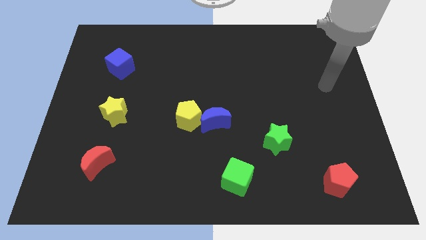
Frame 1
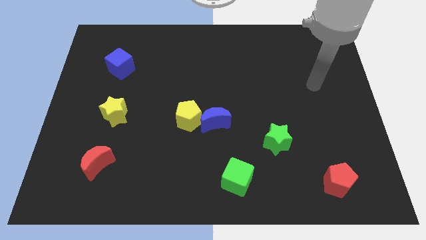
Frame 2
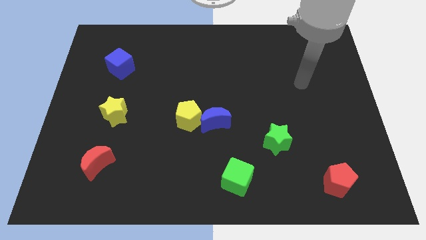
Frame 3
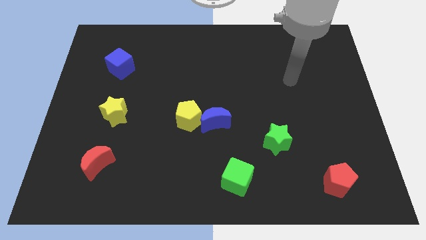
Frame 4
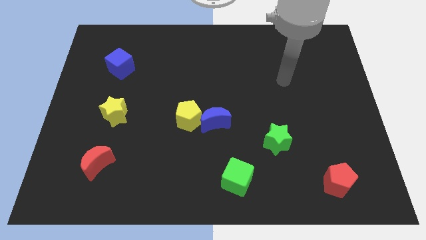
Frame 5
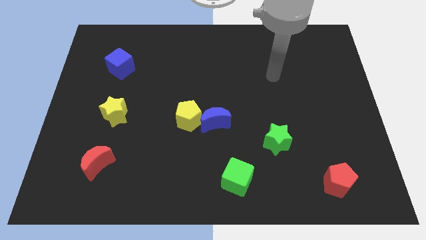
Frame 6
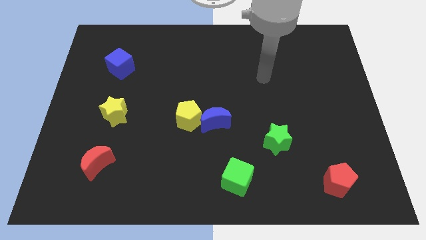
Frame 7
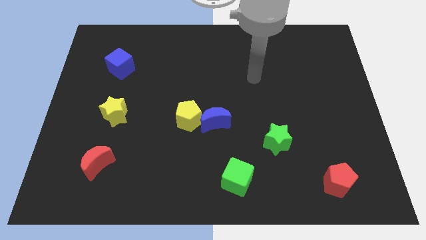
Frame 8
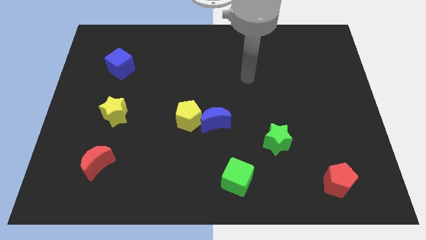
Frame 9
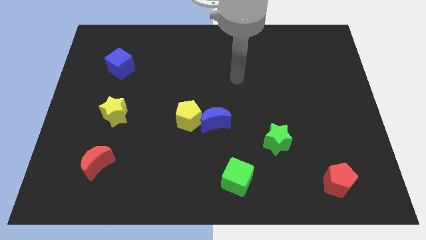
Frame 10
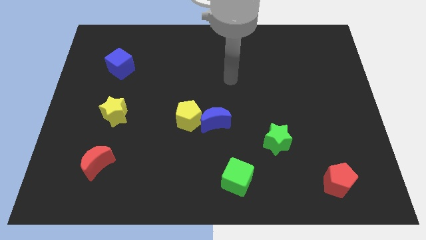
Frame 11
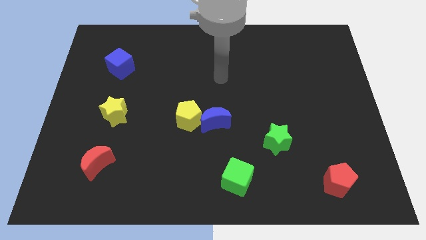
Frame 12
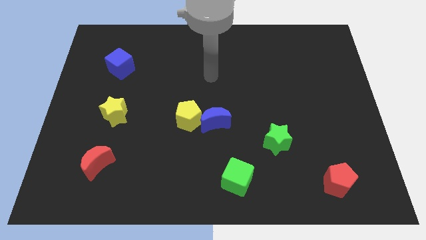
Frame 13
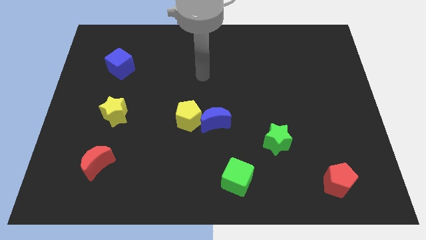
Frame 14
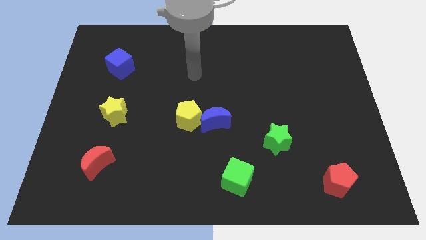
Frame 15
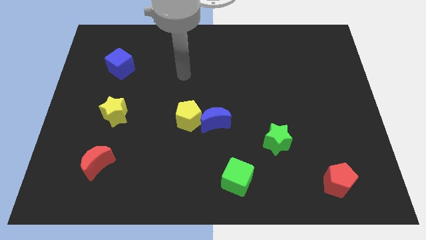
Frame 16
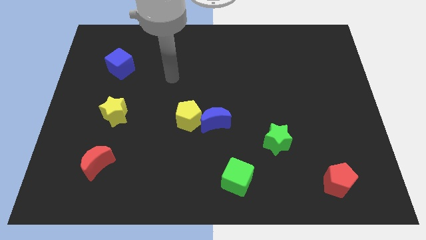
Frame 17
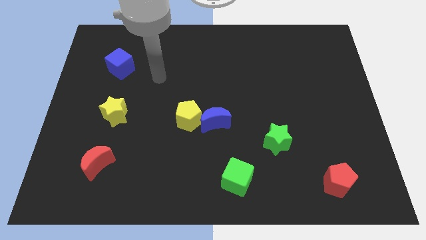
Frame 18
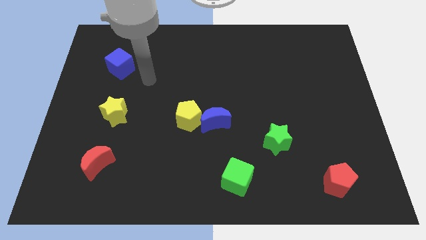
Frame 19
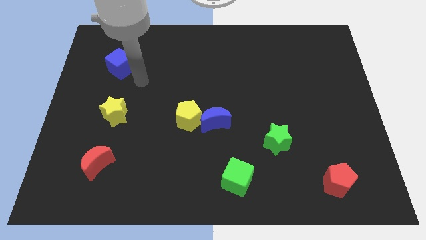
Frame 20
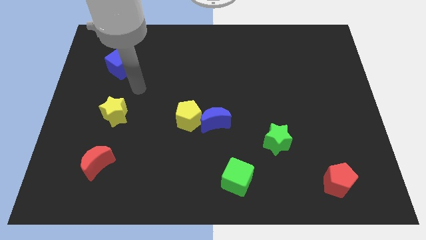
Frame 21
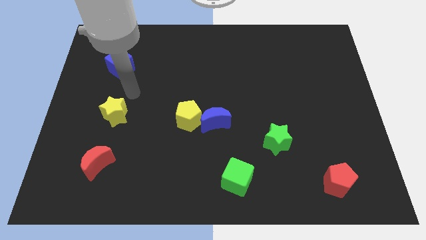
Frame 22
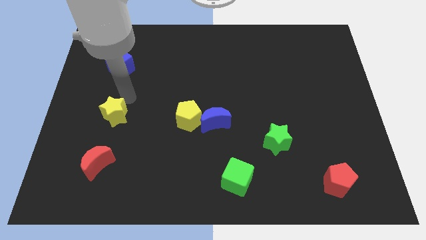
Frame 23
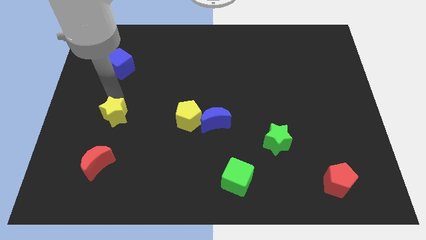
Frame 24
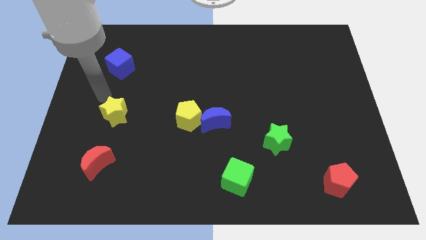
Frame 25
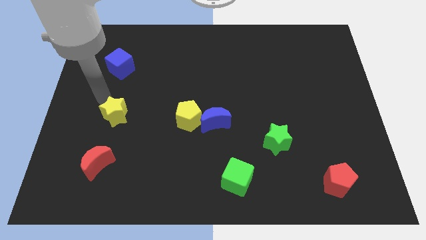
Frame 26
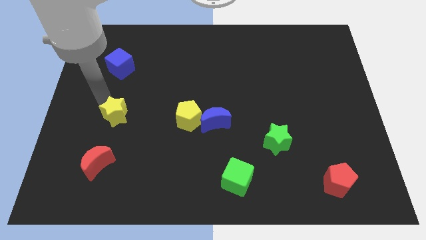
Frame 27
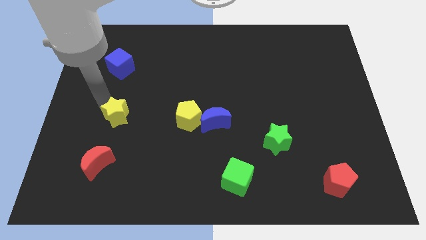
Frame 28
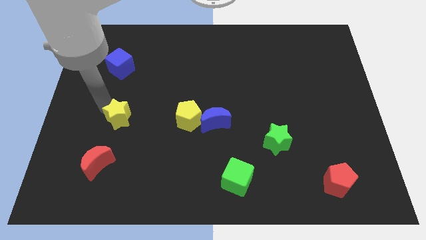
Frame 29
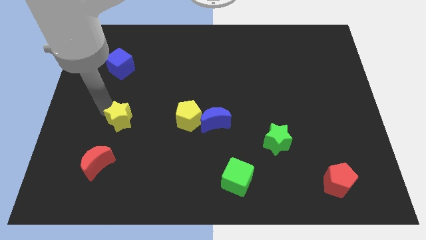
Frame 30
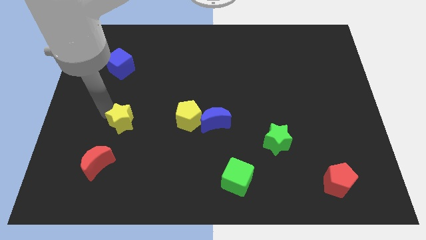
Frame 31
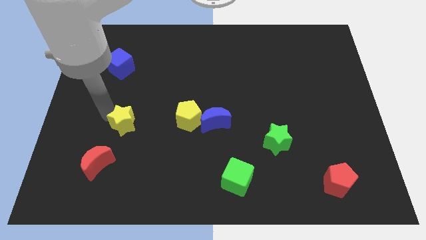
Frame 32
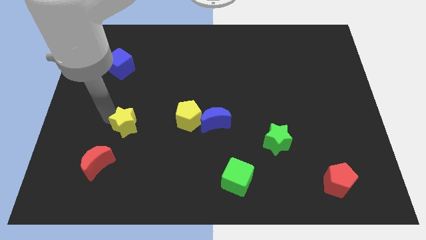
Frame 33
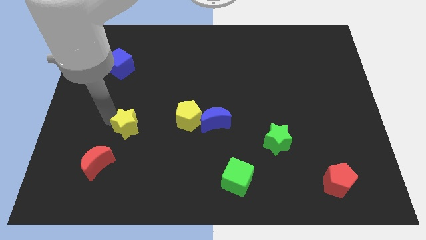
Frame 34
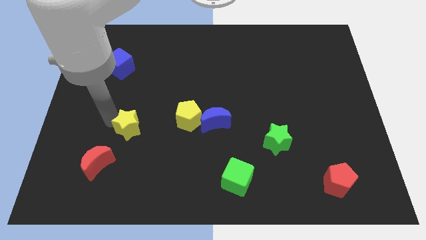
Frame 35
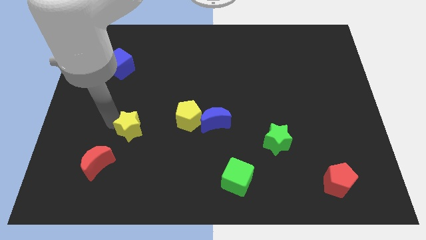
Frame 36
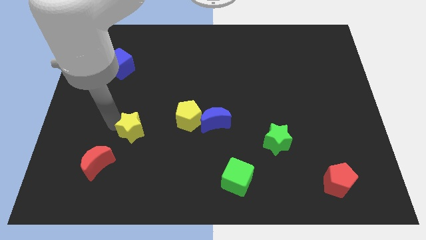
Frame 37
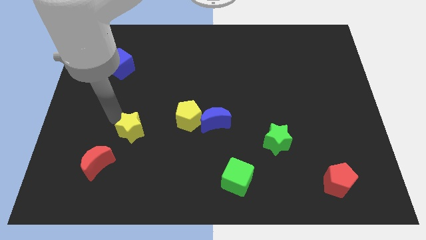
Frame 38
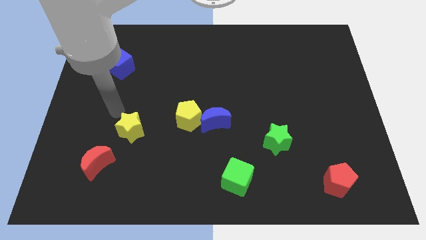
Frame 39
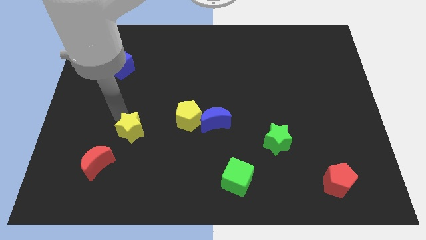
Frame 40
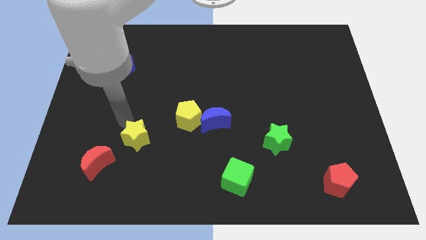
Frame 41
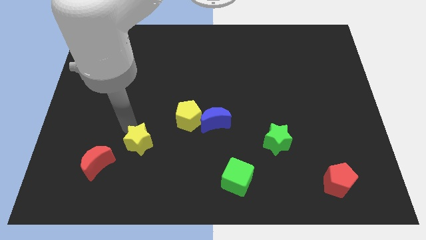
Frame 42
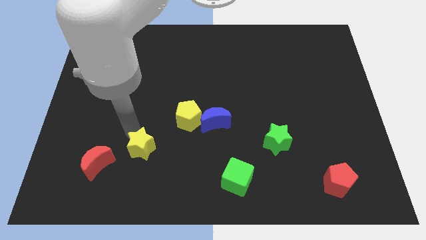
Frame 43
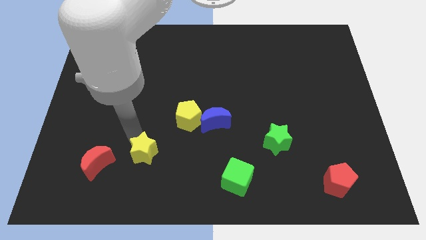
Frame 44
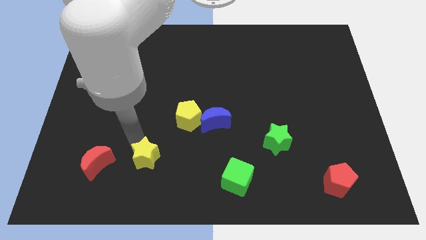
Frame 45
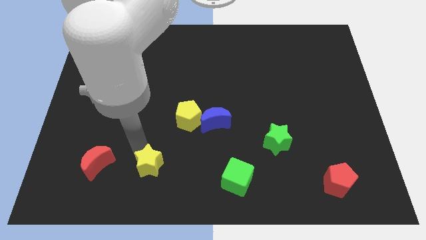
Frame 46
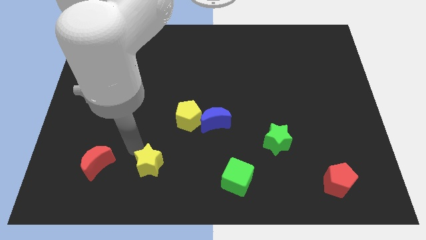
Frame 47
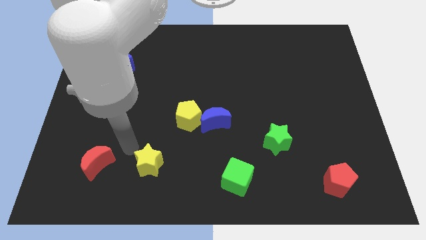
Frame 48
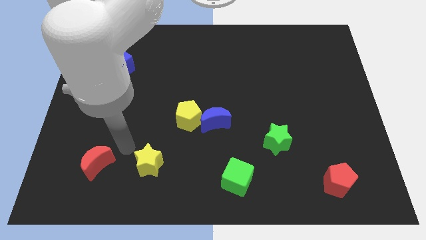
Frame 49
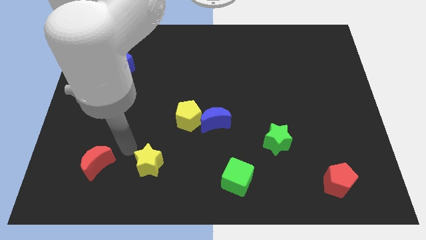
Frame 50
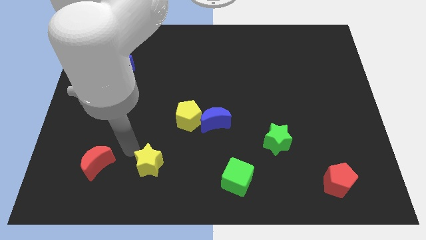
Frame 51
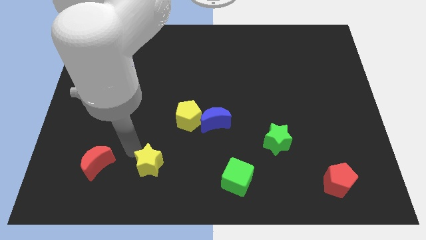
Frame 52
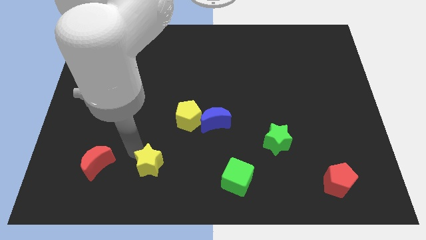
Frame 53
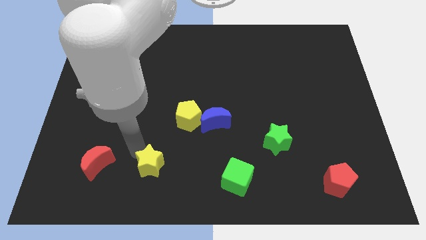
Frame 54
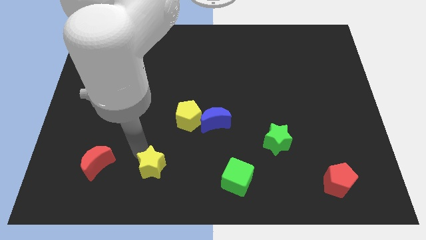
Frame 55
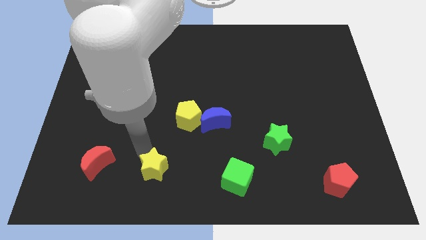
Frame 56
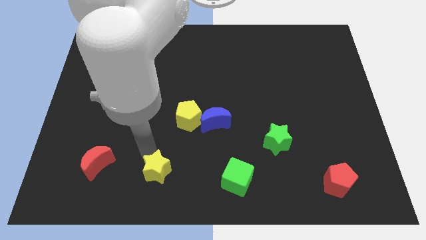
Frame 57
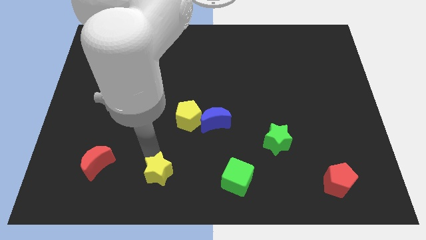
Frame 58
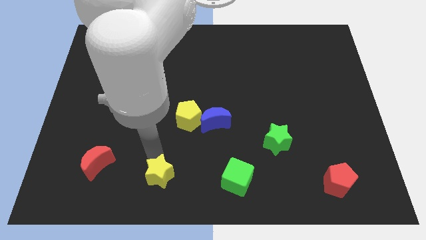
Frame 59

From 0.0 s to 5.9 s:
move the yellow star to the bottom side

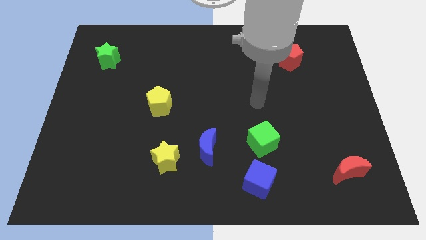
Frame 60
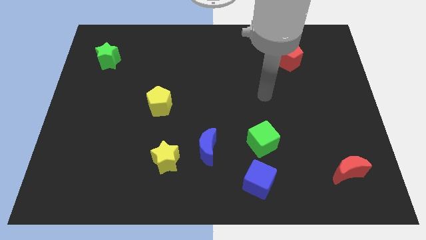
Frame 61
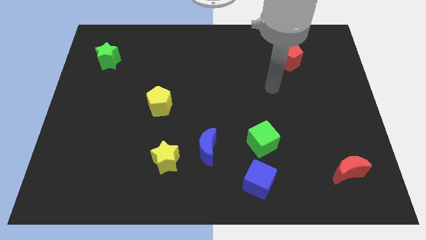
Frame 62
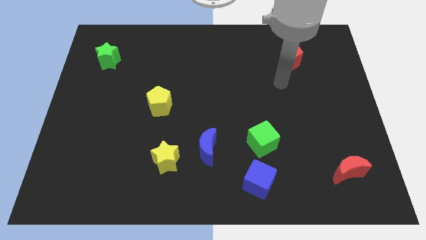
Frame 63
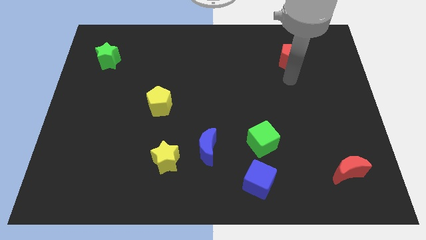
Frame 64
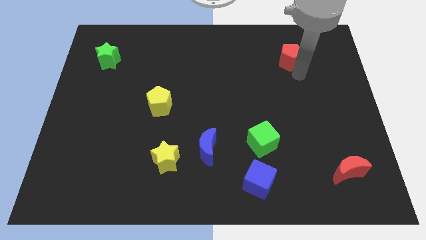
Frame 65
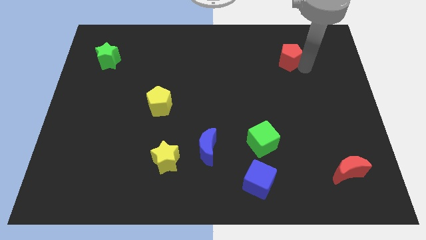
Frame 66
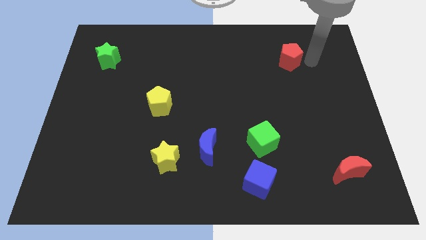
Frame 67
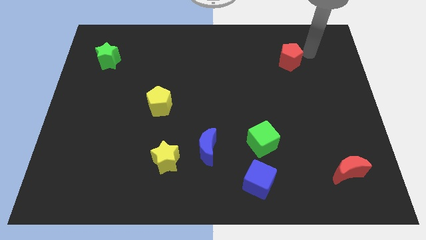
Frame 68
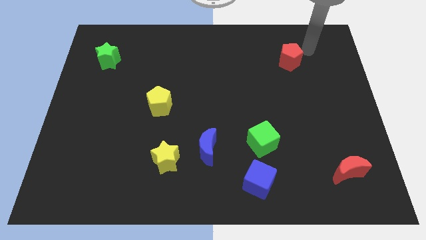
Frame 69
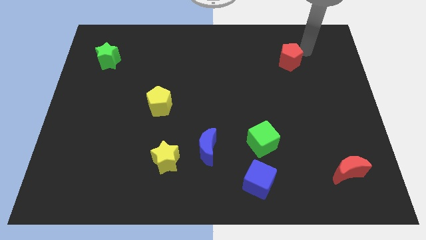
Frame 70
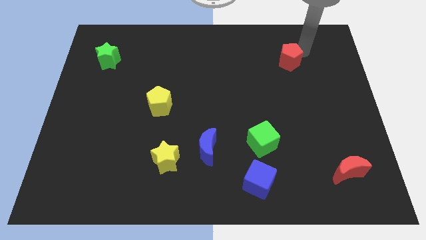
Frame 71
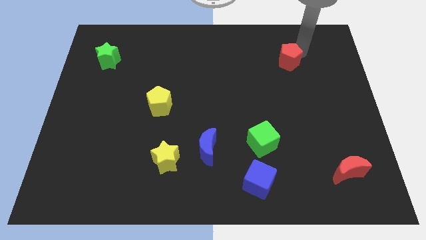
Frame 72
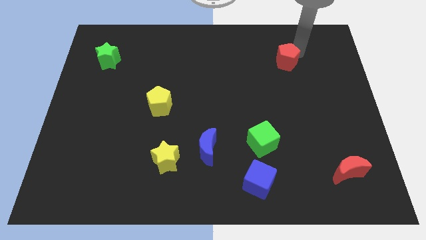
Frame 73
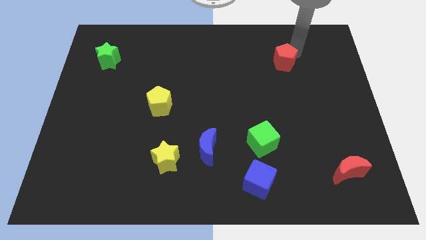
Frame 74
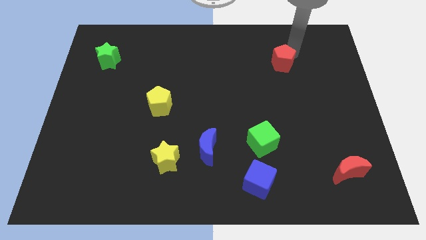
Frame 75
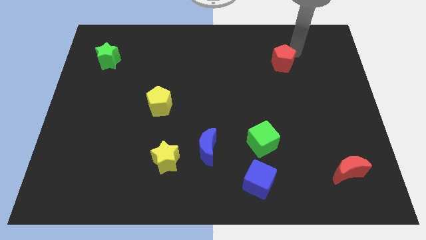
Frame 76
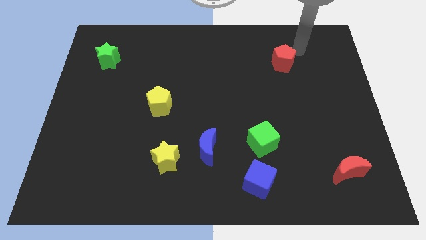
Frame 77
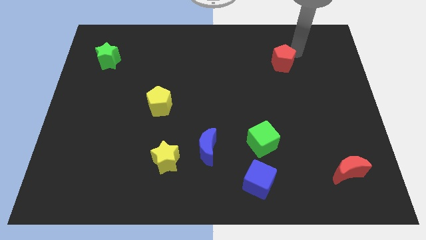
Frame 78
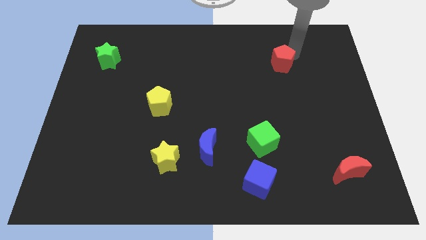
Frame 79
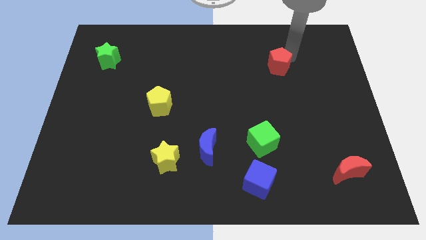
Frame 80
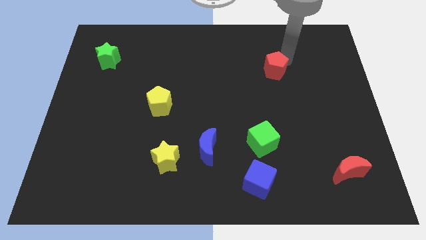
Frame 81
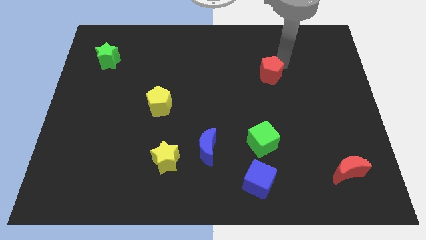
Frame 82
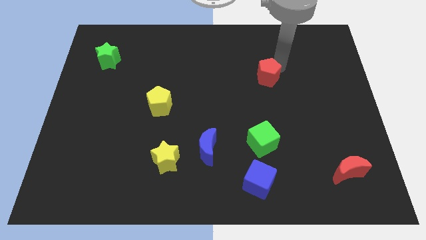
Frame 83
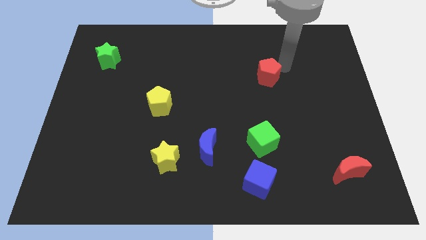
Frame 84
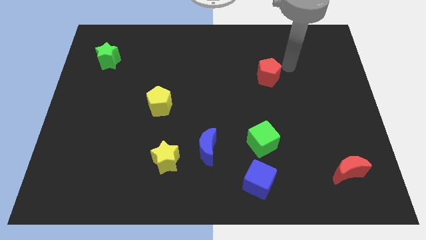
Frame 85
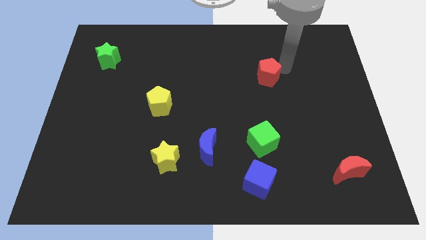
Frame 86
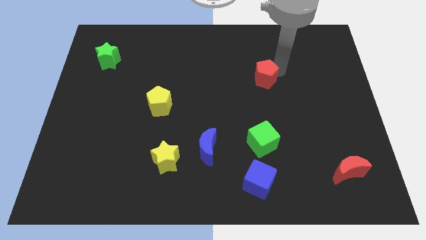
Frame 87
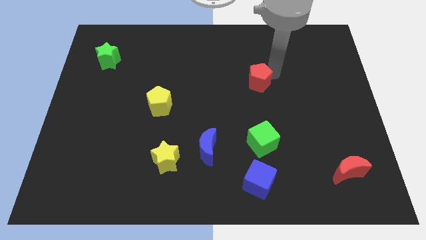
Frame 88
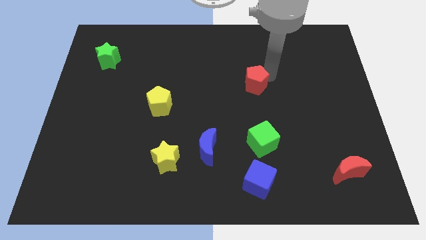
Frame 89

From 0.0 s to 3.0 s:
put the red pentagon to the center of the board
